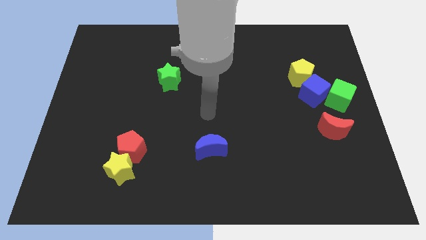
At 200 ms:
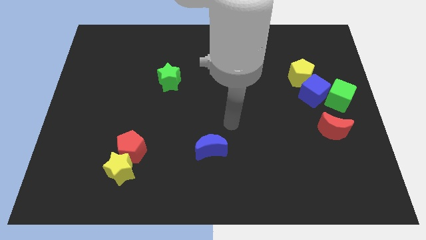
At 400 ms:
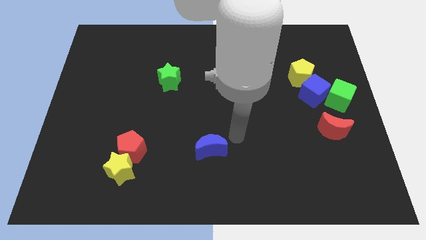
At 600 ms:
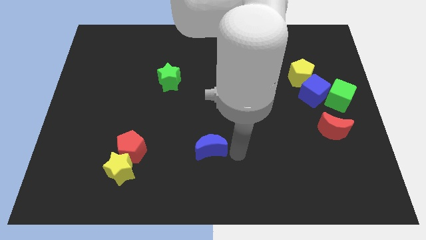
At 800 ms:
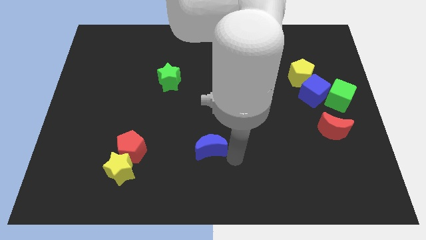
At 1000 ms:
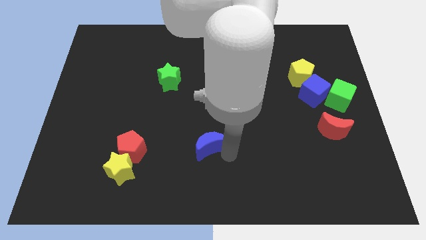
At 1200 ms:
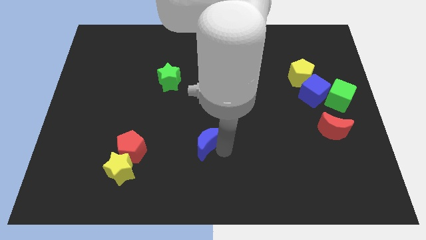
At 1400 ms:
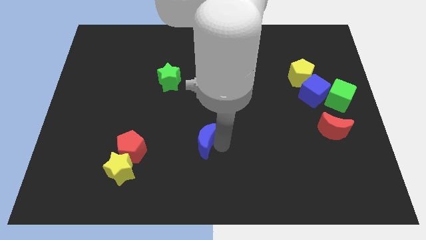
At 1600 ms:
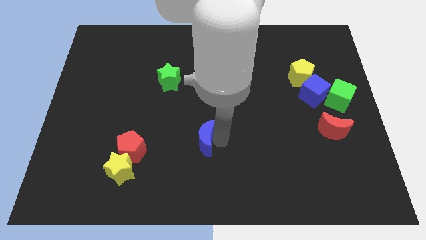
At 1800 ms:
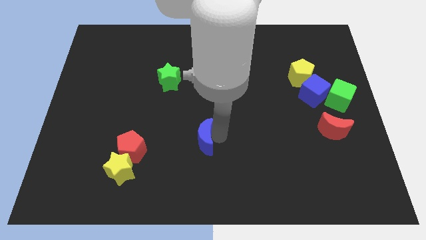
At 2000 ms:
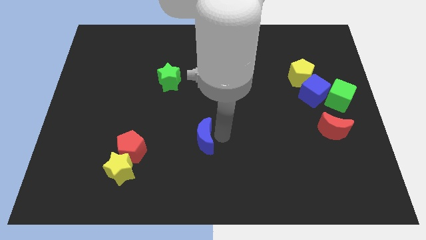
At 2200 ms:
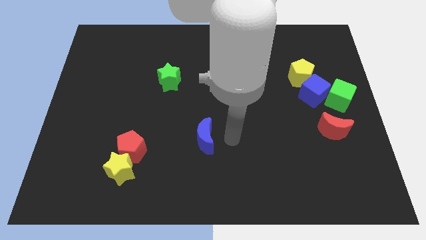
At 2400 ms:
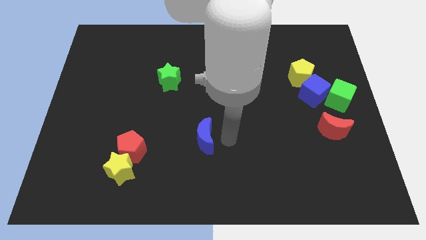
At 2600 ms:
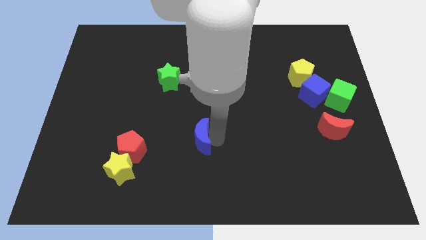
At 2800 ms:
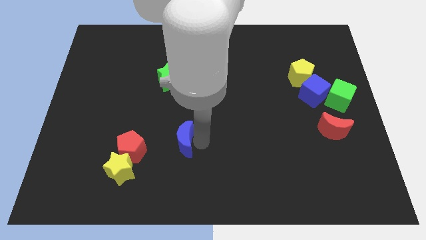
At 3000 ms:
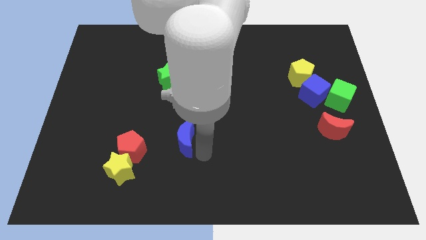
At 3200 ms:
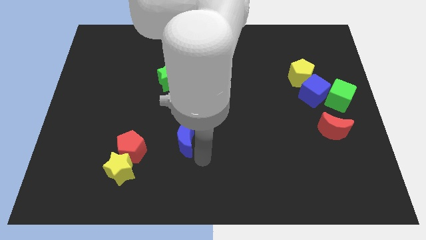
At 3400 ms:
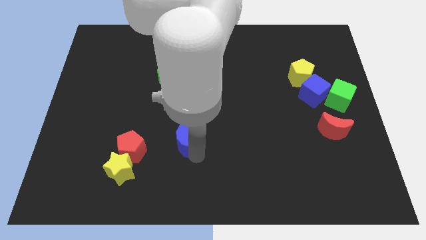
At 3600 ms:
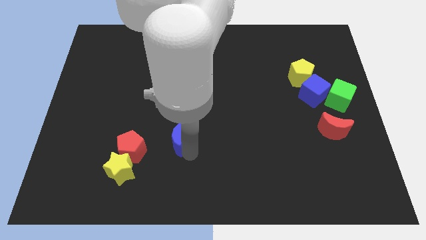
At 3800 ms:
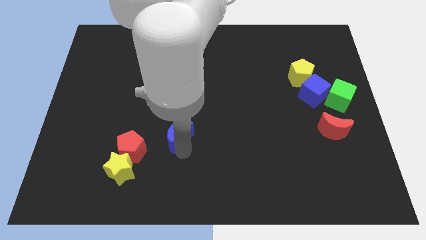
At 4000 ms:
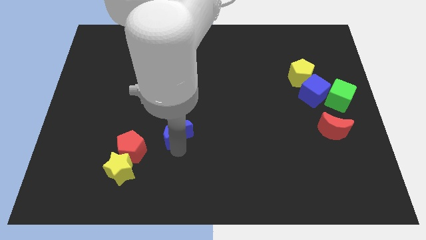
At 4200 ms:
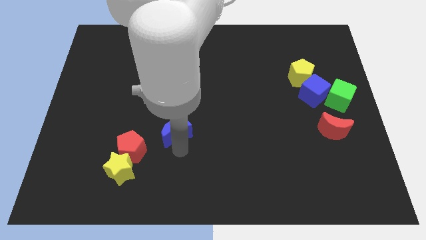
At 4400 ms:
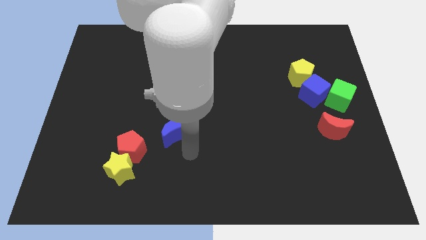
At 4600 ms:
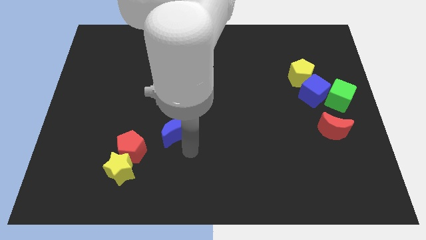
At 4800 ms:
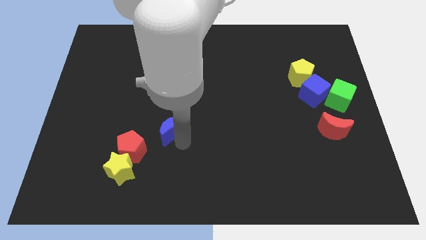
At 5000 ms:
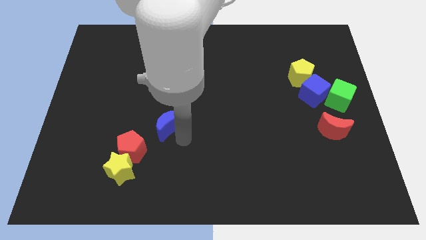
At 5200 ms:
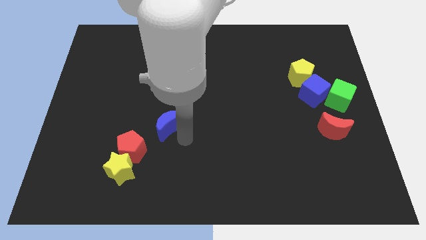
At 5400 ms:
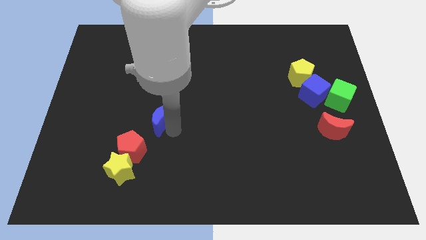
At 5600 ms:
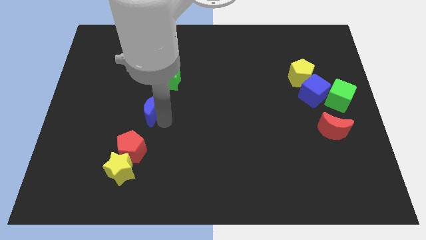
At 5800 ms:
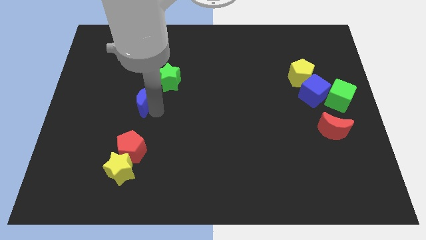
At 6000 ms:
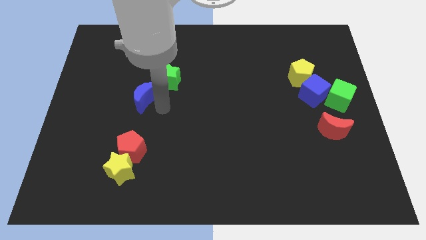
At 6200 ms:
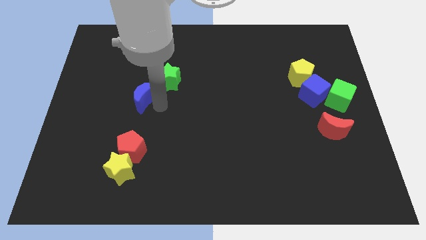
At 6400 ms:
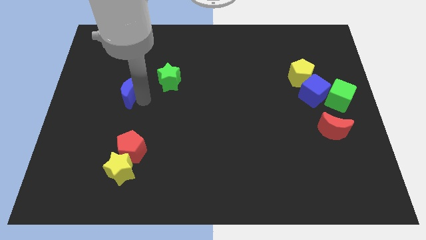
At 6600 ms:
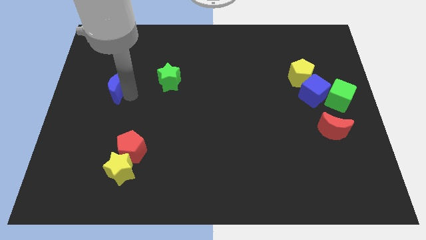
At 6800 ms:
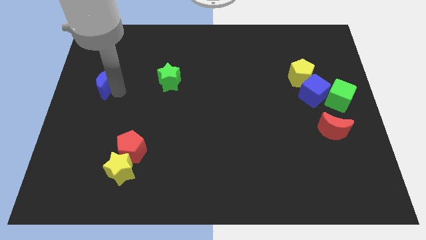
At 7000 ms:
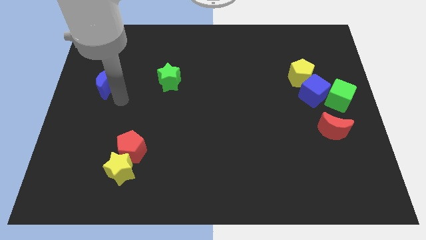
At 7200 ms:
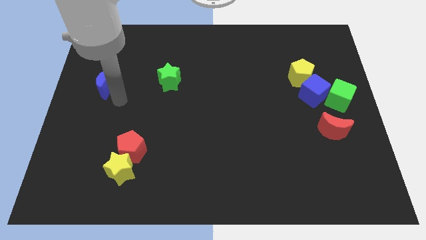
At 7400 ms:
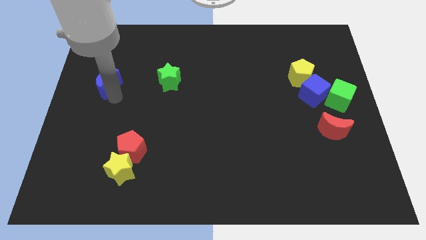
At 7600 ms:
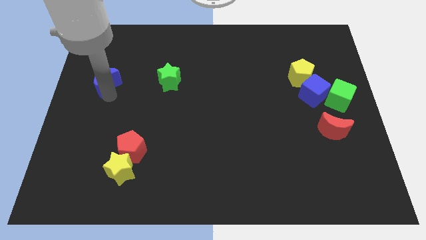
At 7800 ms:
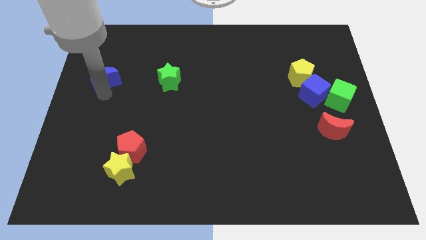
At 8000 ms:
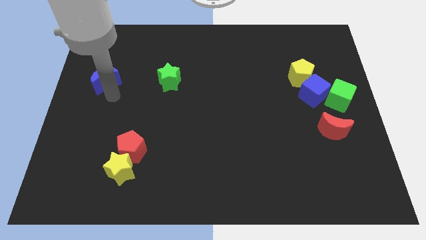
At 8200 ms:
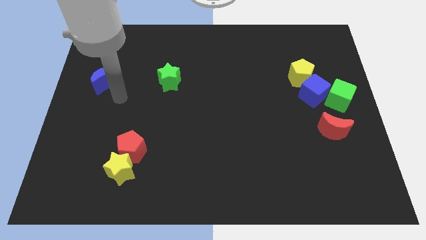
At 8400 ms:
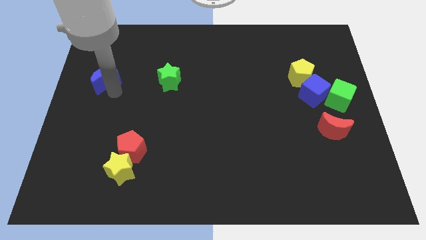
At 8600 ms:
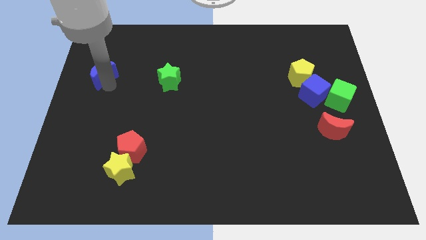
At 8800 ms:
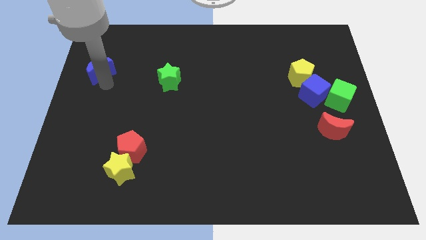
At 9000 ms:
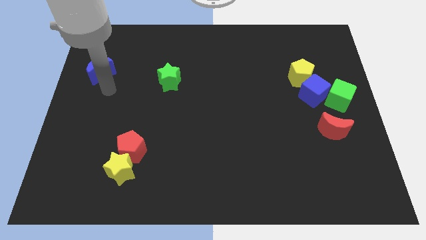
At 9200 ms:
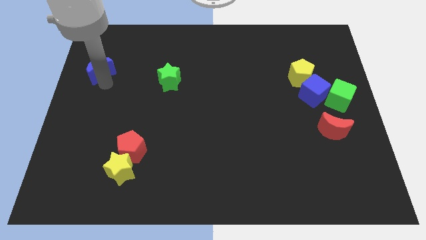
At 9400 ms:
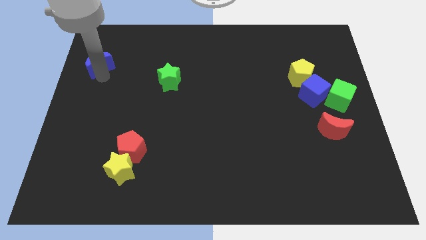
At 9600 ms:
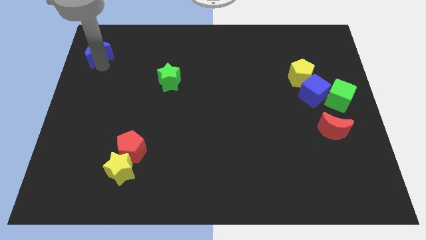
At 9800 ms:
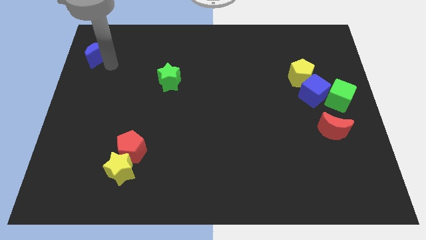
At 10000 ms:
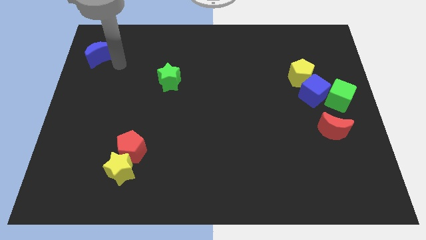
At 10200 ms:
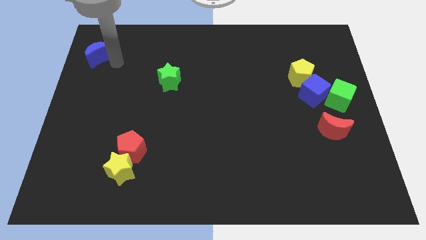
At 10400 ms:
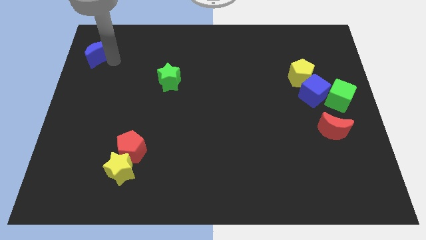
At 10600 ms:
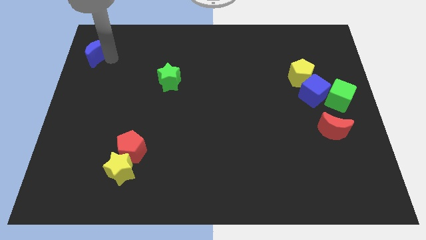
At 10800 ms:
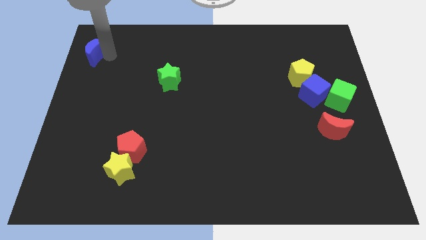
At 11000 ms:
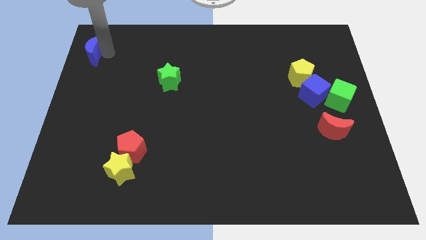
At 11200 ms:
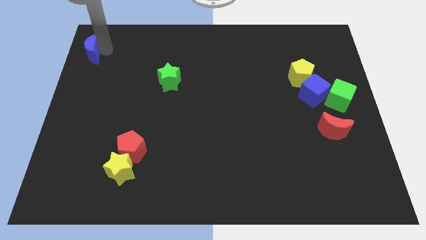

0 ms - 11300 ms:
push the blue moon to the top left corner

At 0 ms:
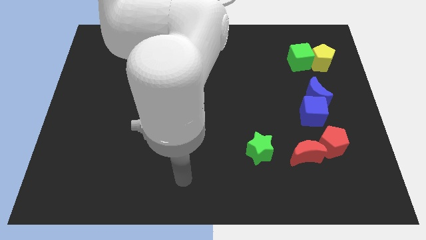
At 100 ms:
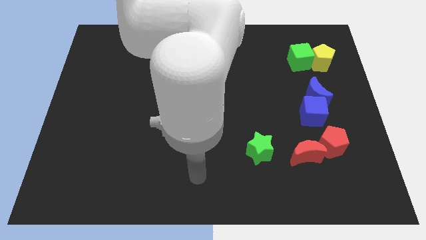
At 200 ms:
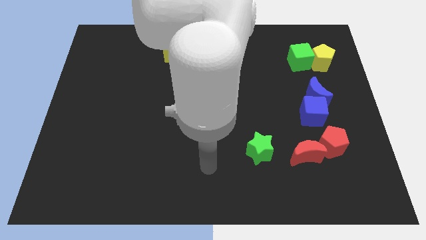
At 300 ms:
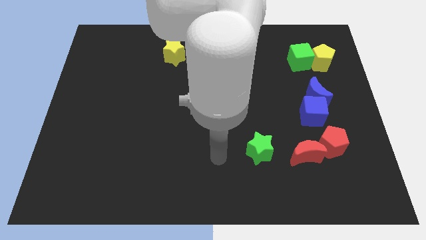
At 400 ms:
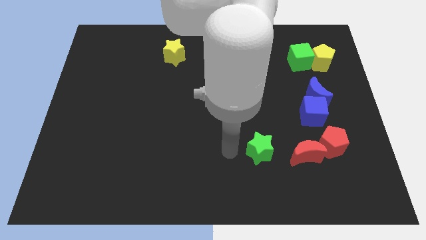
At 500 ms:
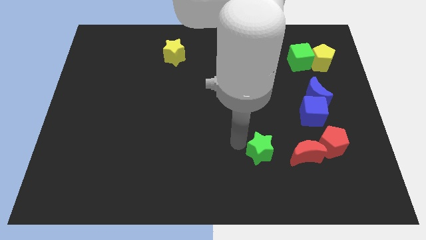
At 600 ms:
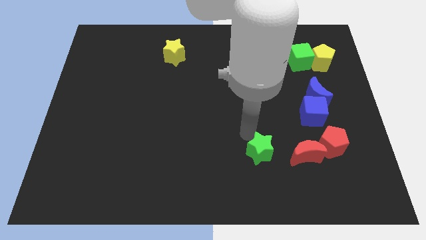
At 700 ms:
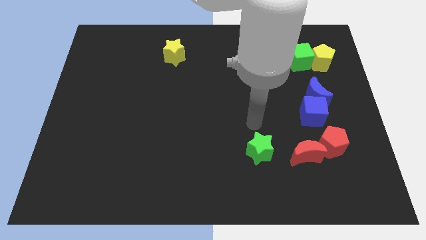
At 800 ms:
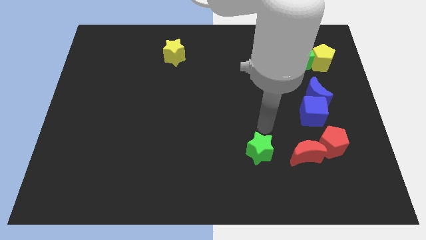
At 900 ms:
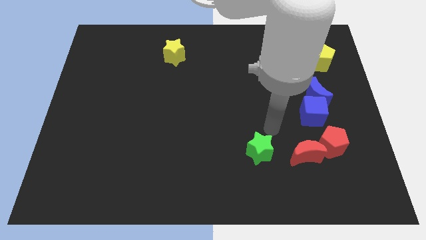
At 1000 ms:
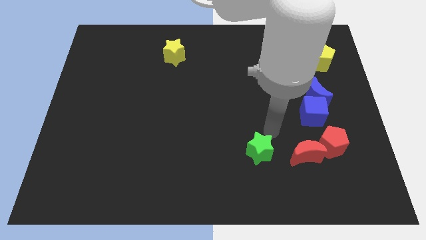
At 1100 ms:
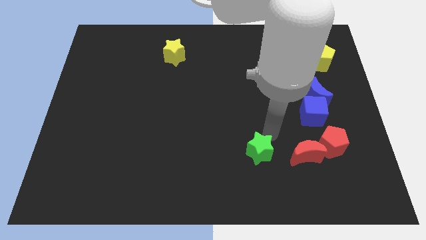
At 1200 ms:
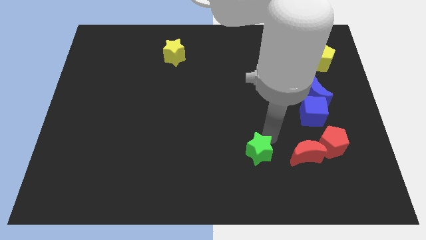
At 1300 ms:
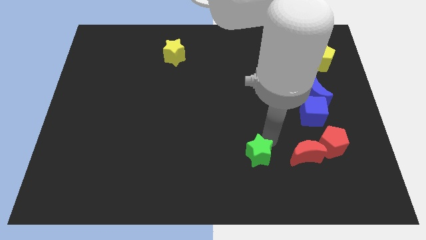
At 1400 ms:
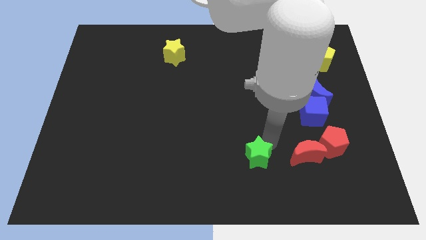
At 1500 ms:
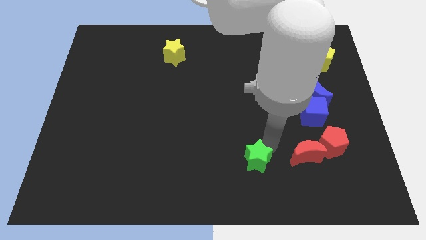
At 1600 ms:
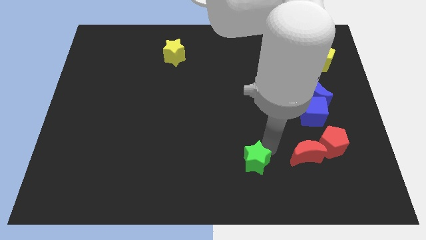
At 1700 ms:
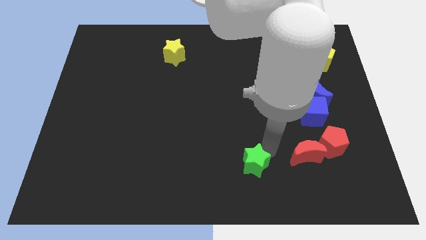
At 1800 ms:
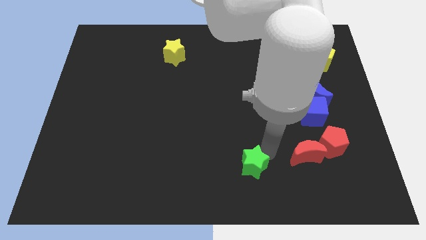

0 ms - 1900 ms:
slide the green star to the bottom
